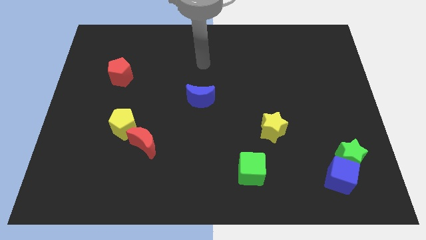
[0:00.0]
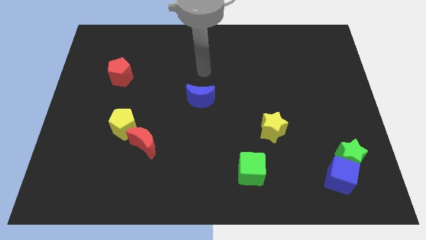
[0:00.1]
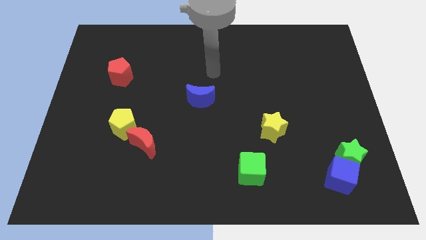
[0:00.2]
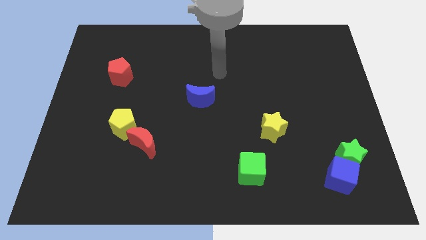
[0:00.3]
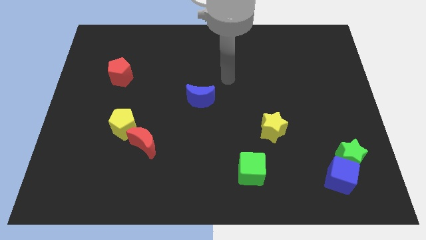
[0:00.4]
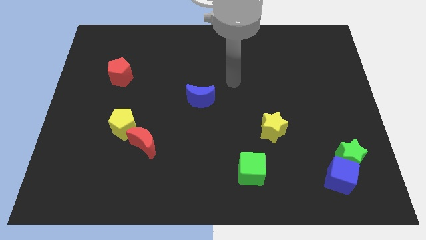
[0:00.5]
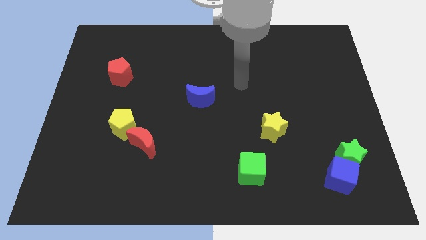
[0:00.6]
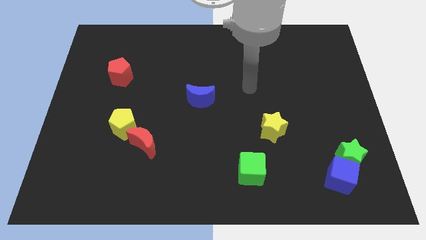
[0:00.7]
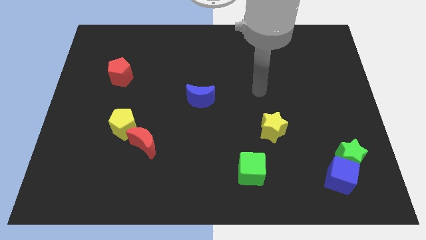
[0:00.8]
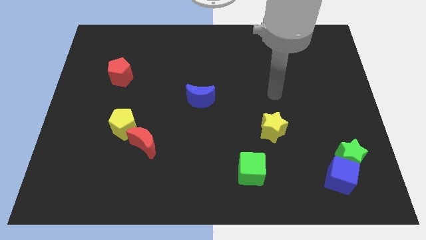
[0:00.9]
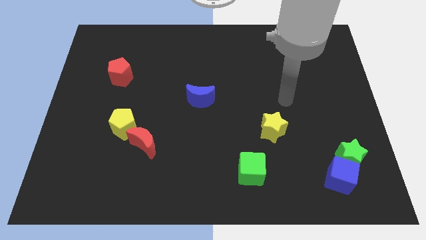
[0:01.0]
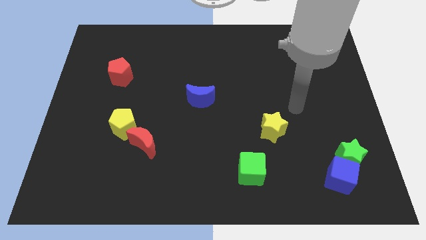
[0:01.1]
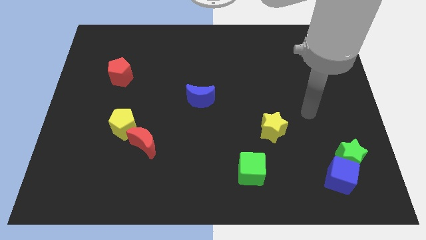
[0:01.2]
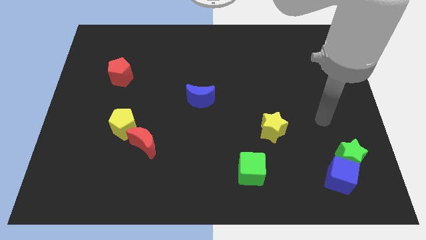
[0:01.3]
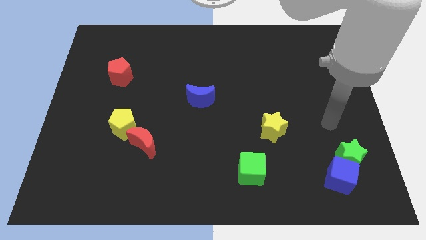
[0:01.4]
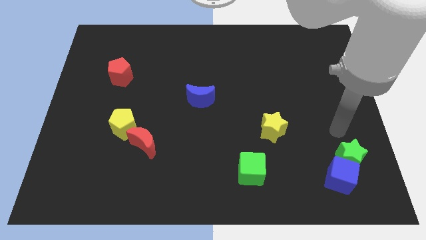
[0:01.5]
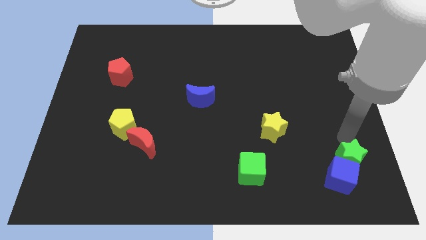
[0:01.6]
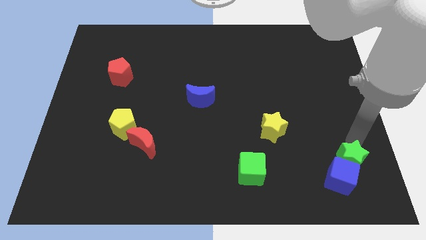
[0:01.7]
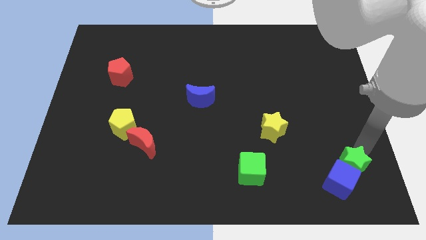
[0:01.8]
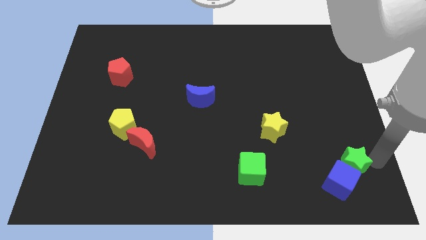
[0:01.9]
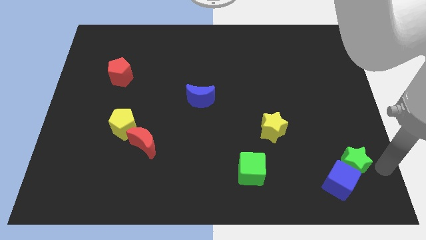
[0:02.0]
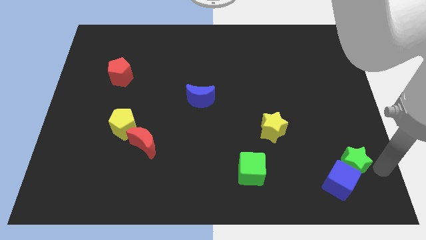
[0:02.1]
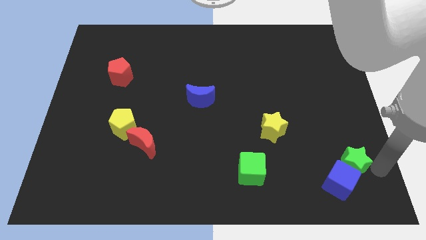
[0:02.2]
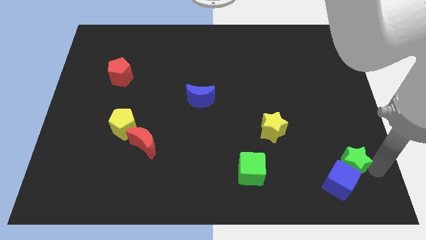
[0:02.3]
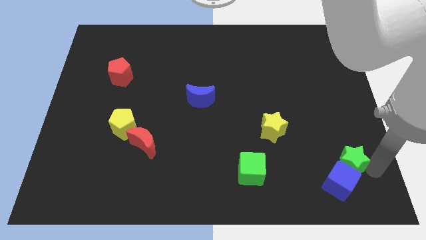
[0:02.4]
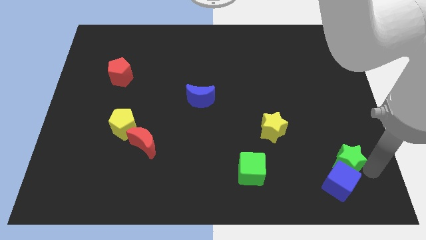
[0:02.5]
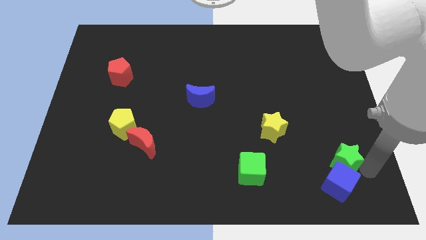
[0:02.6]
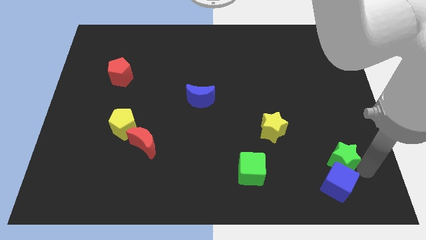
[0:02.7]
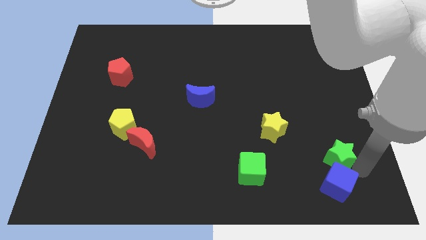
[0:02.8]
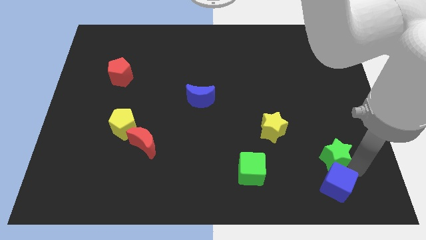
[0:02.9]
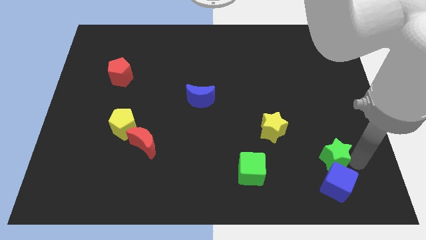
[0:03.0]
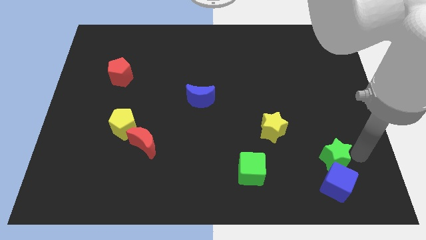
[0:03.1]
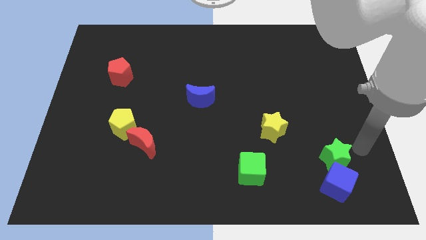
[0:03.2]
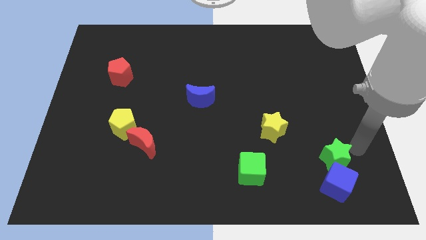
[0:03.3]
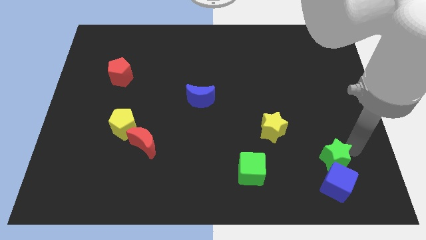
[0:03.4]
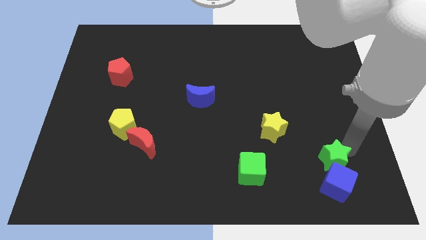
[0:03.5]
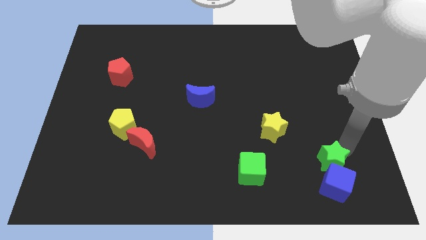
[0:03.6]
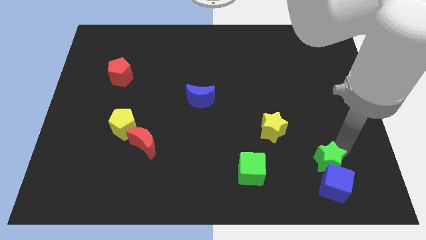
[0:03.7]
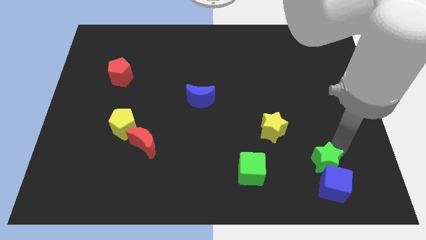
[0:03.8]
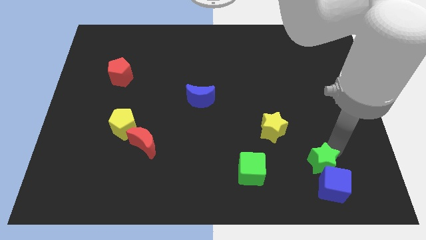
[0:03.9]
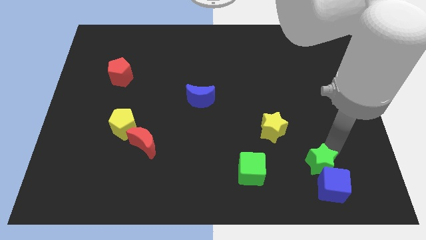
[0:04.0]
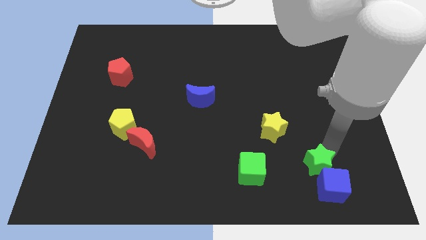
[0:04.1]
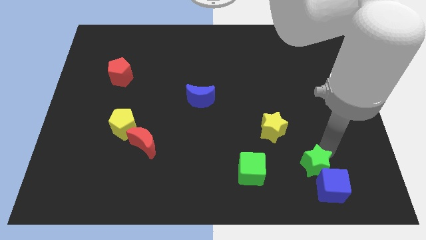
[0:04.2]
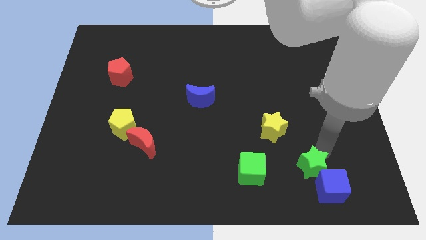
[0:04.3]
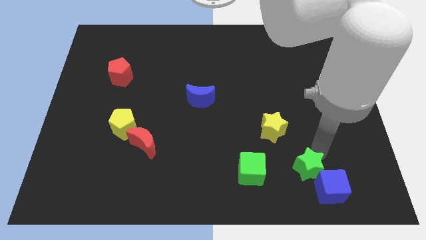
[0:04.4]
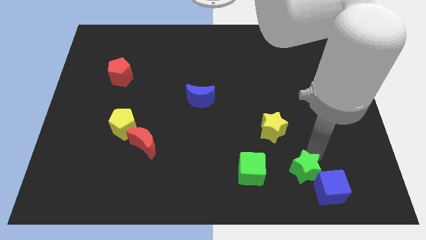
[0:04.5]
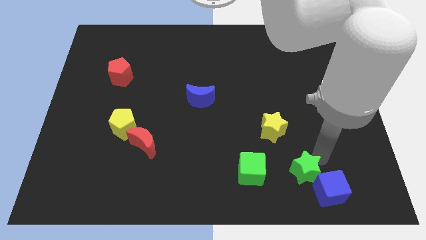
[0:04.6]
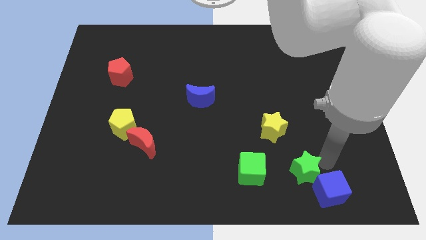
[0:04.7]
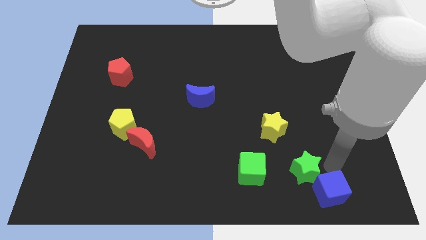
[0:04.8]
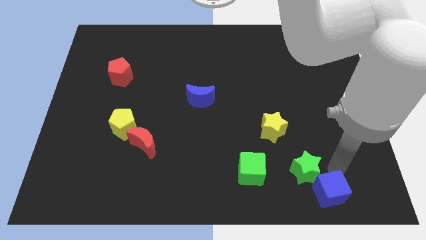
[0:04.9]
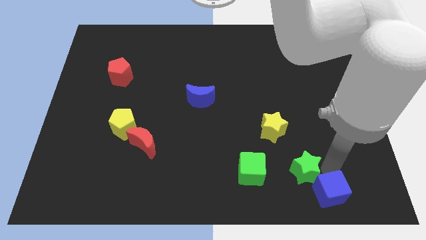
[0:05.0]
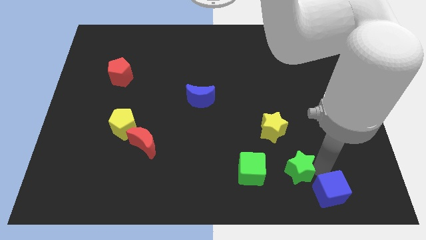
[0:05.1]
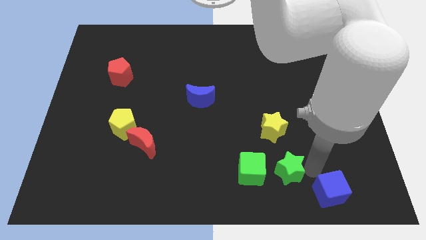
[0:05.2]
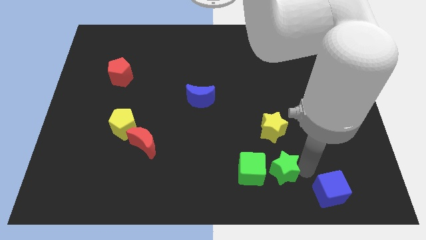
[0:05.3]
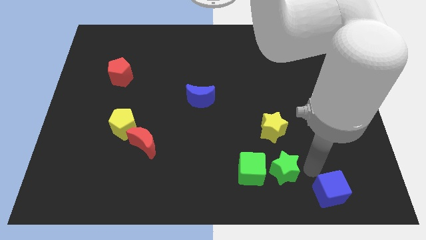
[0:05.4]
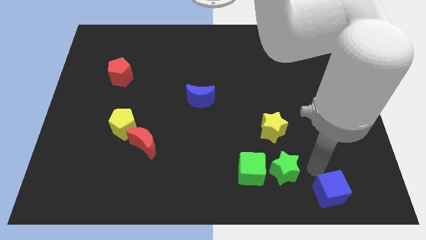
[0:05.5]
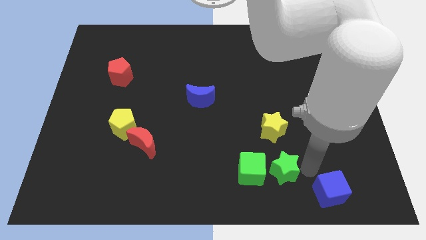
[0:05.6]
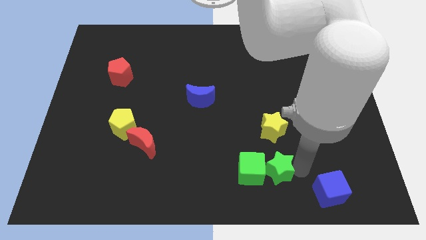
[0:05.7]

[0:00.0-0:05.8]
slide the green star next to the green cube
